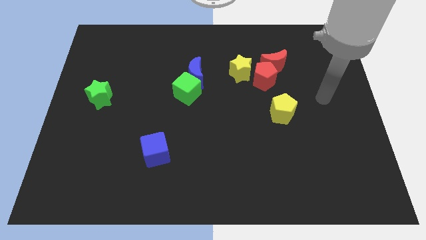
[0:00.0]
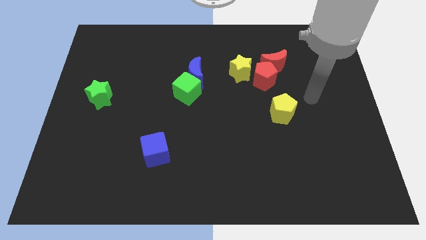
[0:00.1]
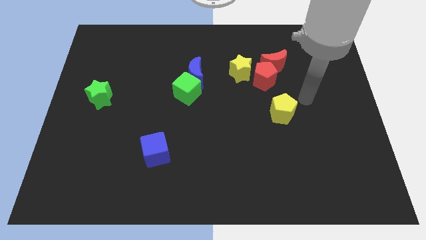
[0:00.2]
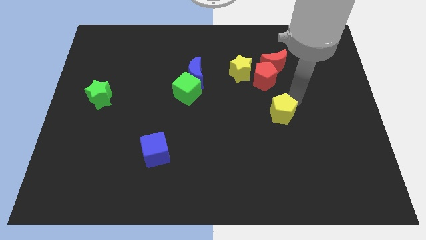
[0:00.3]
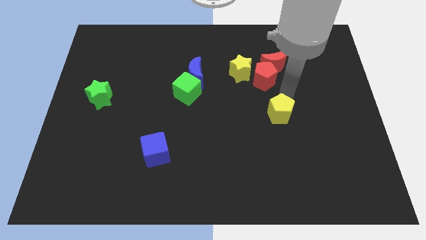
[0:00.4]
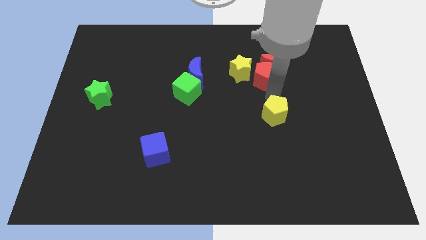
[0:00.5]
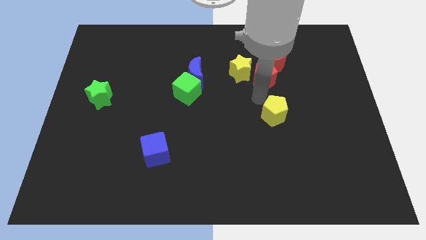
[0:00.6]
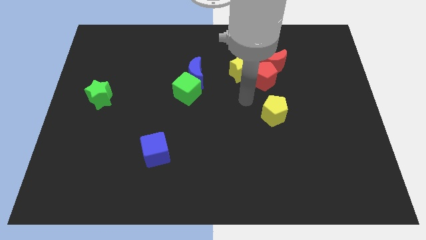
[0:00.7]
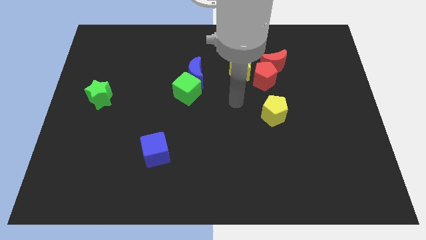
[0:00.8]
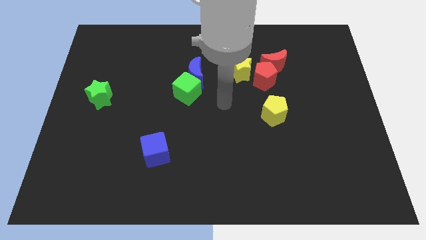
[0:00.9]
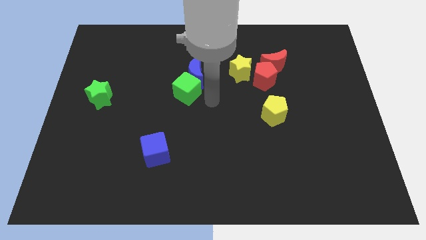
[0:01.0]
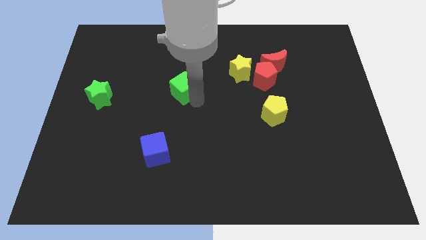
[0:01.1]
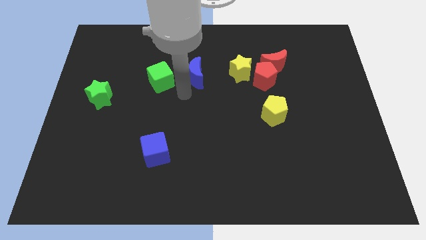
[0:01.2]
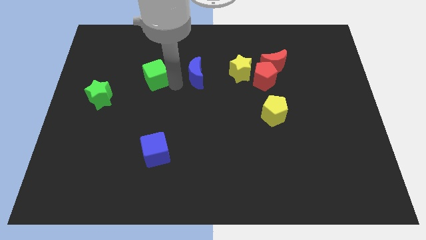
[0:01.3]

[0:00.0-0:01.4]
separate the blue moon from the green cube

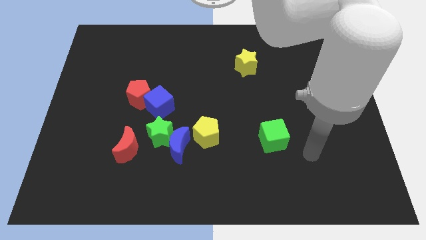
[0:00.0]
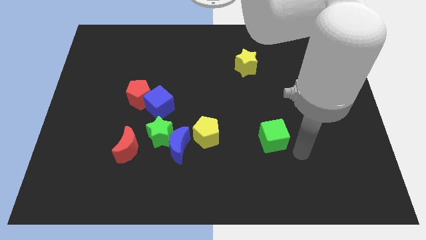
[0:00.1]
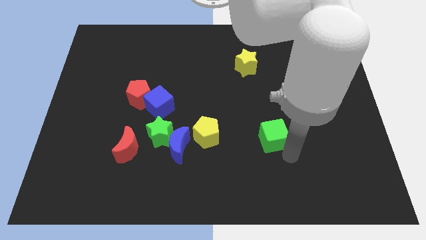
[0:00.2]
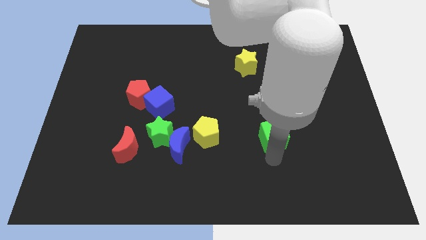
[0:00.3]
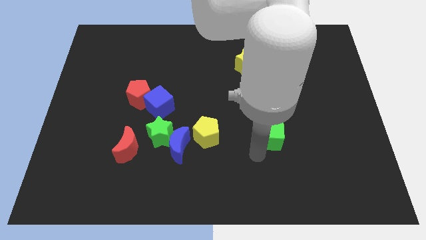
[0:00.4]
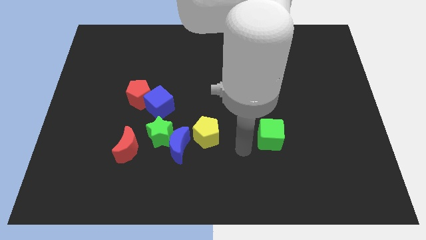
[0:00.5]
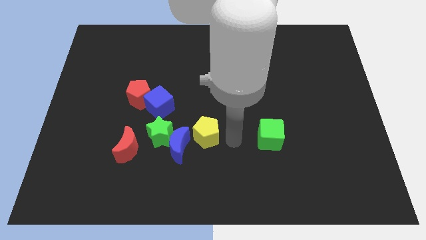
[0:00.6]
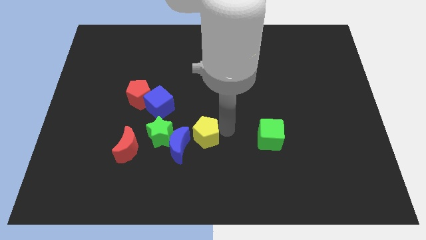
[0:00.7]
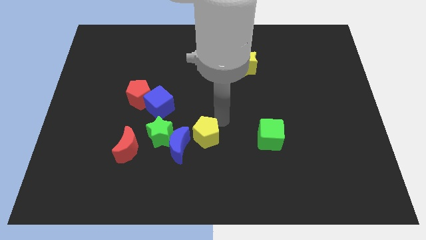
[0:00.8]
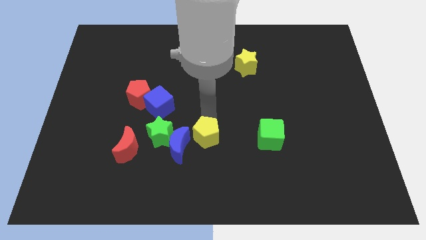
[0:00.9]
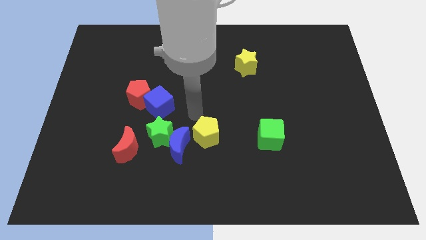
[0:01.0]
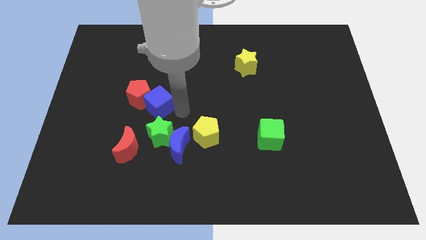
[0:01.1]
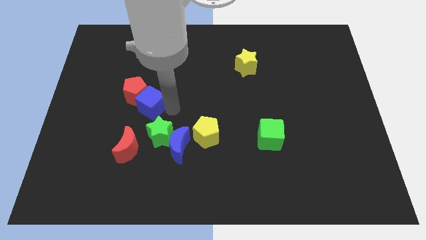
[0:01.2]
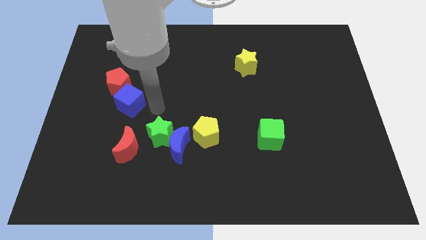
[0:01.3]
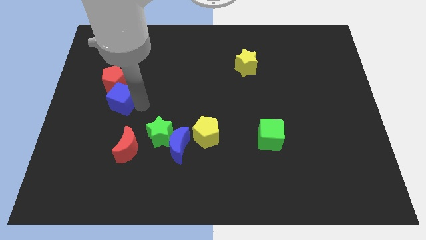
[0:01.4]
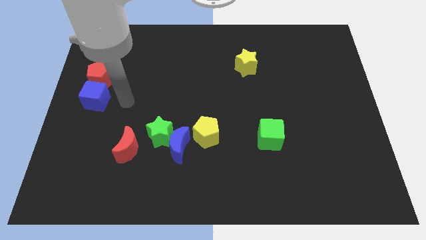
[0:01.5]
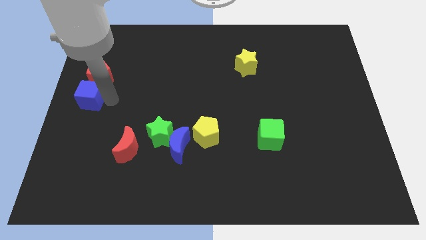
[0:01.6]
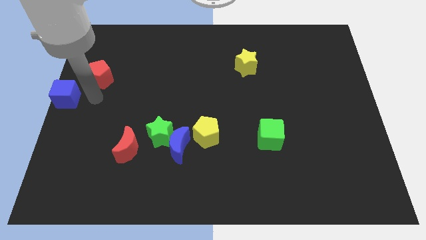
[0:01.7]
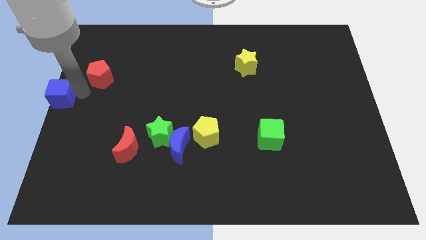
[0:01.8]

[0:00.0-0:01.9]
pull the red pentagon apart from the blue cube

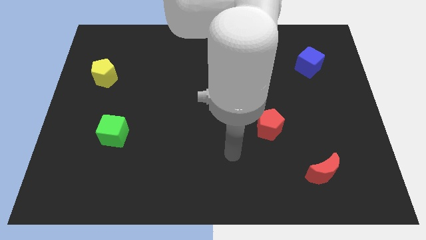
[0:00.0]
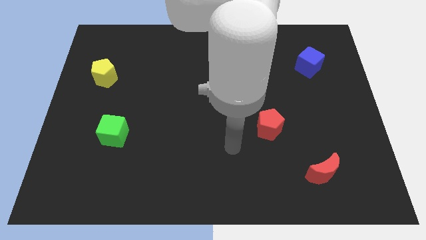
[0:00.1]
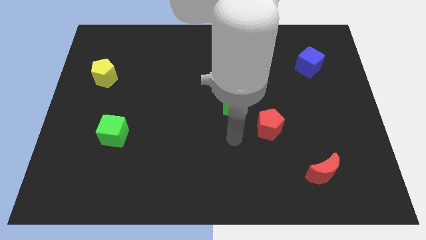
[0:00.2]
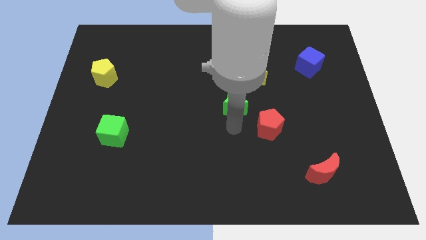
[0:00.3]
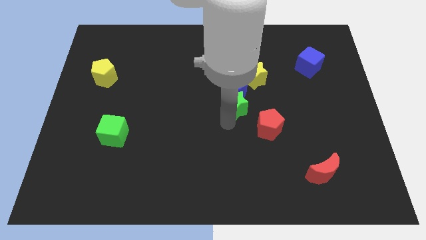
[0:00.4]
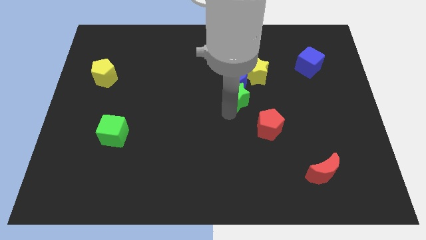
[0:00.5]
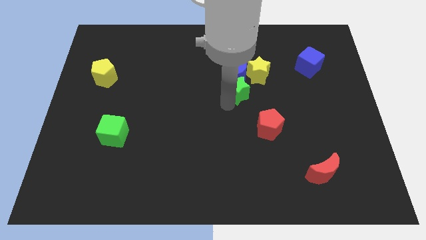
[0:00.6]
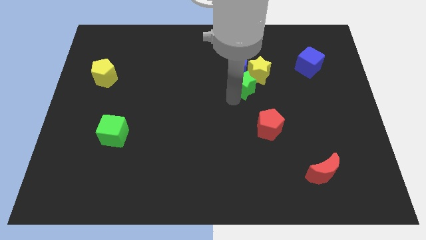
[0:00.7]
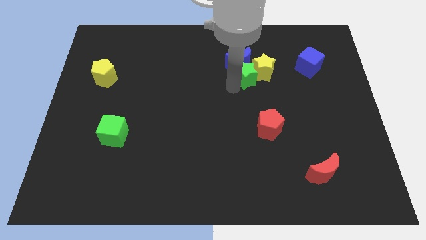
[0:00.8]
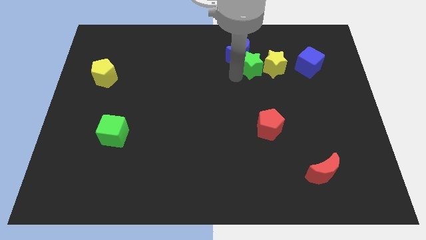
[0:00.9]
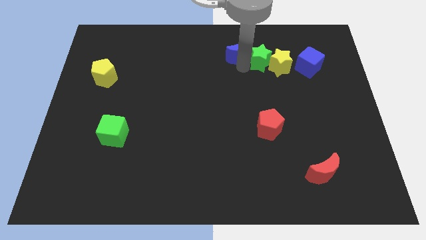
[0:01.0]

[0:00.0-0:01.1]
move the yellow star away from the blue moon

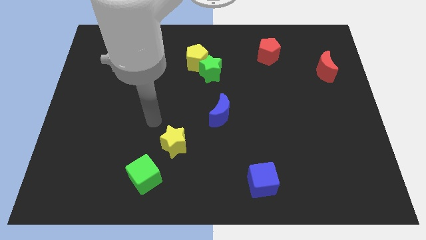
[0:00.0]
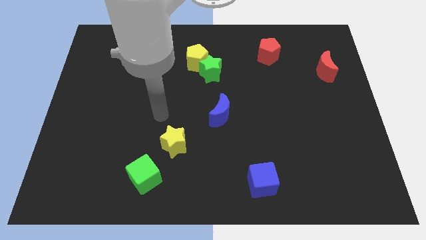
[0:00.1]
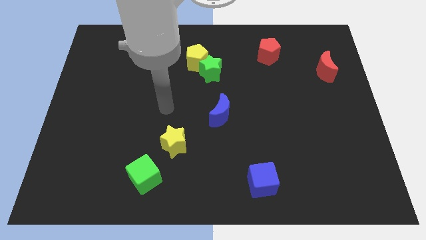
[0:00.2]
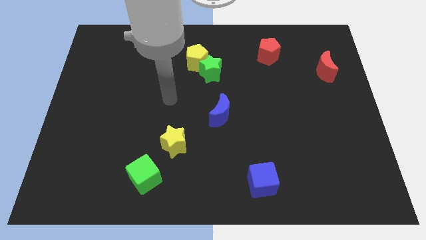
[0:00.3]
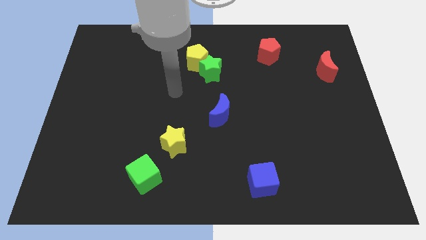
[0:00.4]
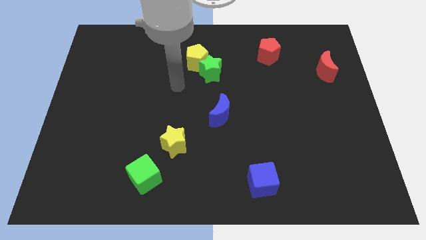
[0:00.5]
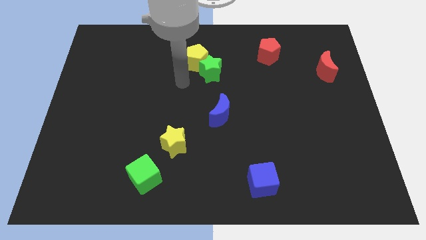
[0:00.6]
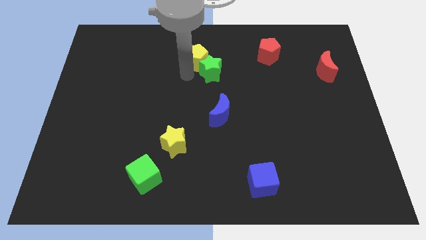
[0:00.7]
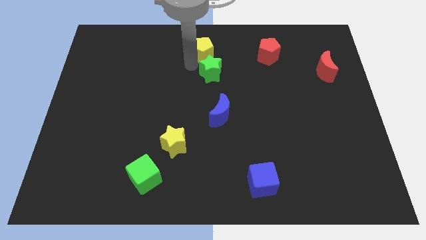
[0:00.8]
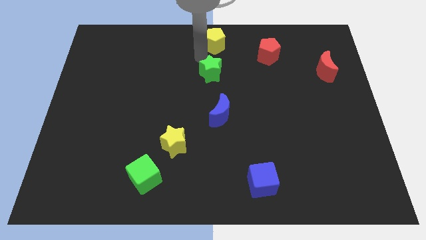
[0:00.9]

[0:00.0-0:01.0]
move the green star away from the yellow pentagon

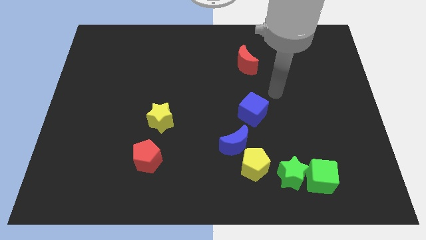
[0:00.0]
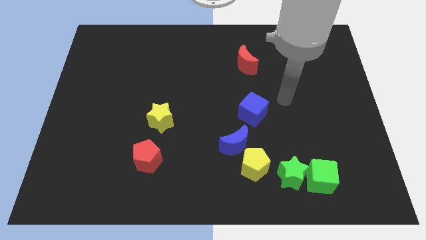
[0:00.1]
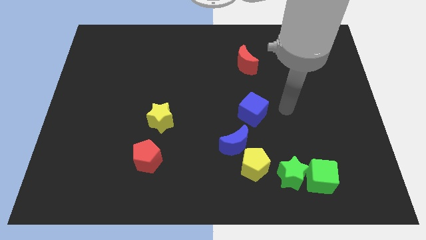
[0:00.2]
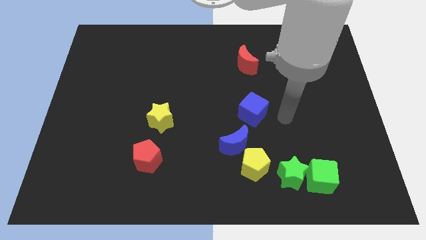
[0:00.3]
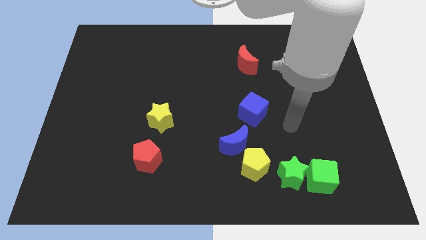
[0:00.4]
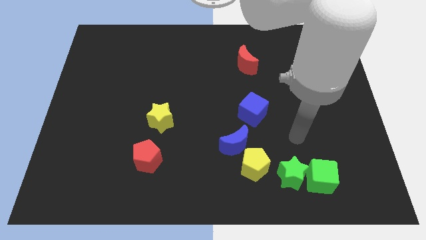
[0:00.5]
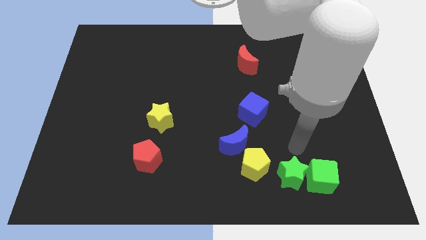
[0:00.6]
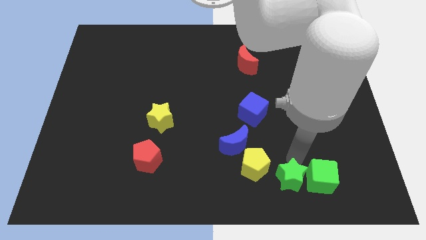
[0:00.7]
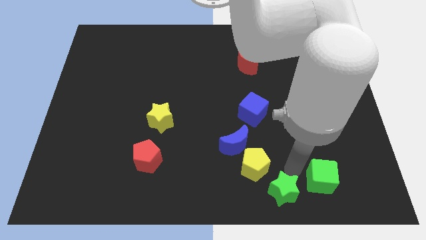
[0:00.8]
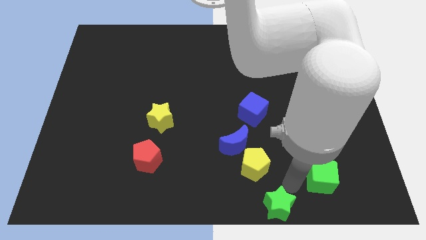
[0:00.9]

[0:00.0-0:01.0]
pull the green cube apart from the green star

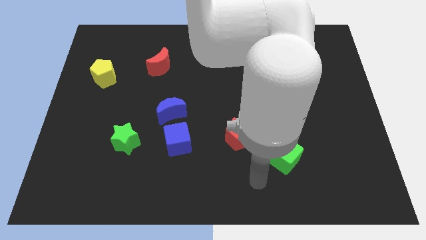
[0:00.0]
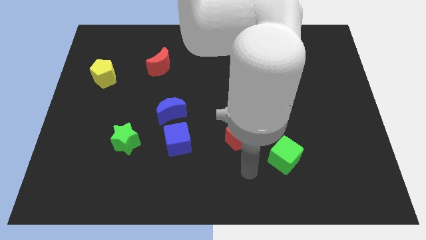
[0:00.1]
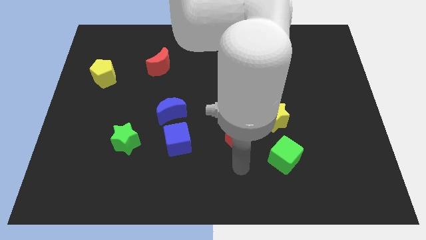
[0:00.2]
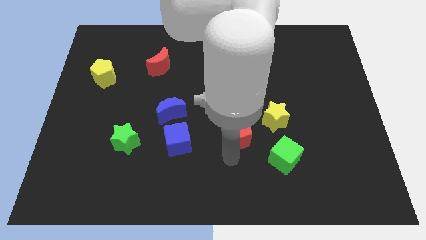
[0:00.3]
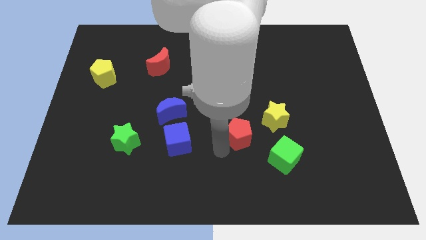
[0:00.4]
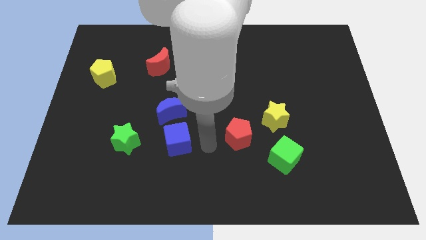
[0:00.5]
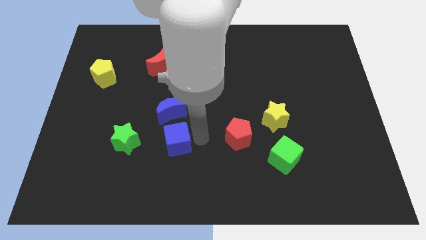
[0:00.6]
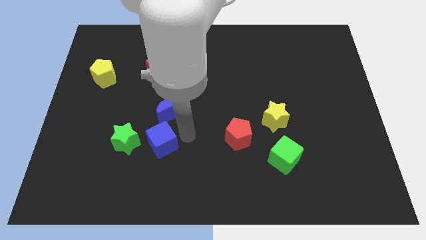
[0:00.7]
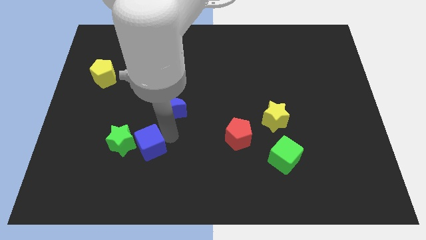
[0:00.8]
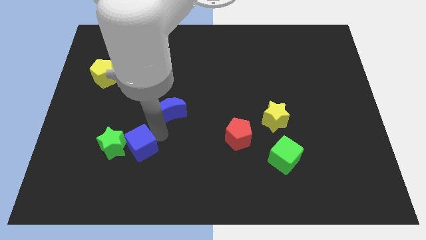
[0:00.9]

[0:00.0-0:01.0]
move the blue moon away from the blue cube

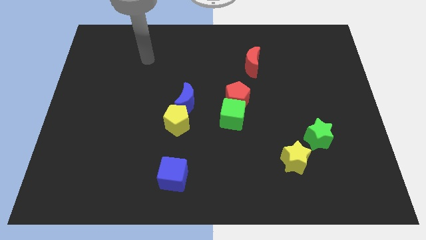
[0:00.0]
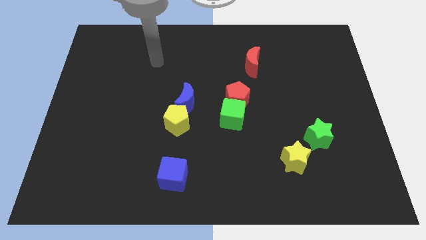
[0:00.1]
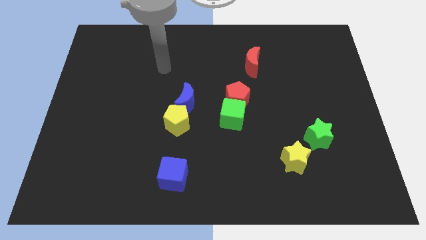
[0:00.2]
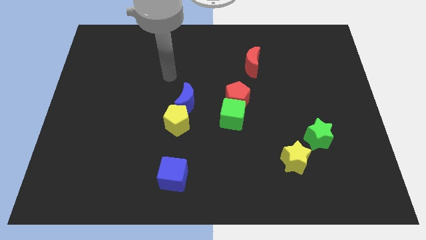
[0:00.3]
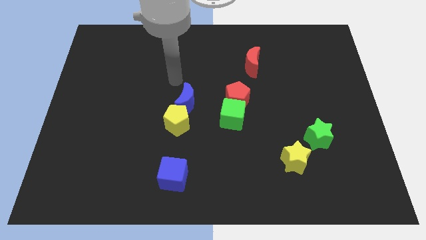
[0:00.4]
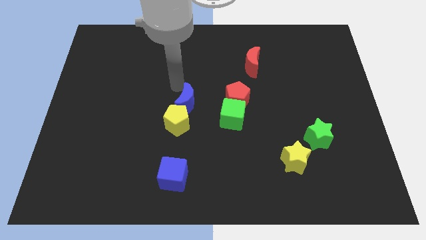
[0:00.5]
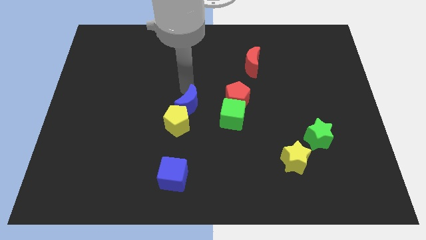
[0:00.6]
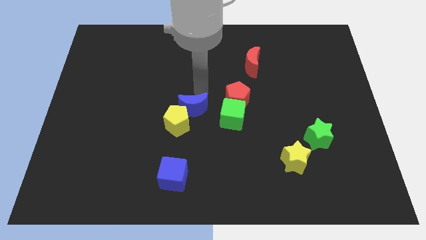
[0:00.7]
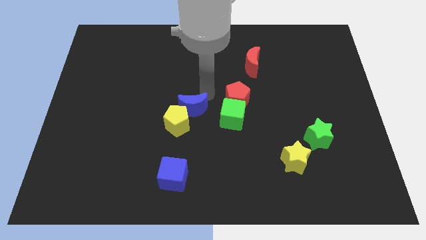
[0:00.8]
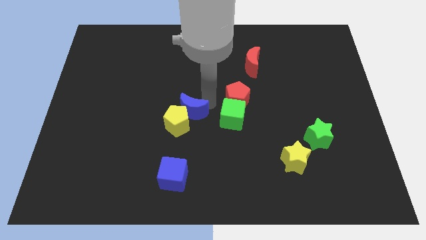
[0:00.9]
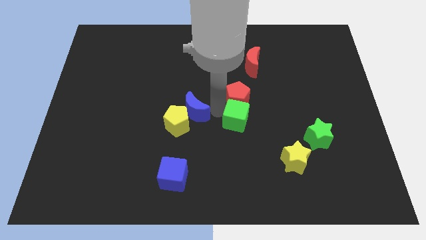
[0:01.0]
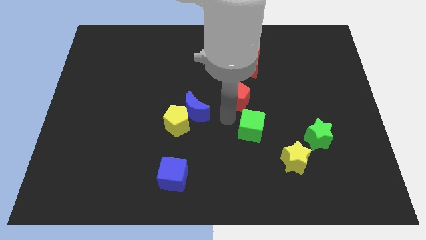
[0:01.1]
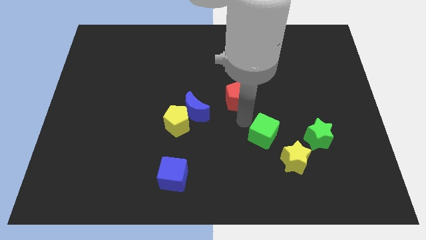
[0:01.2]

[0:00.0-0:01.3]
move the red pentagon away from the green cube

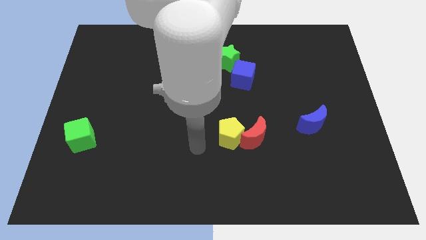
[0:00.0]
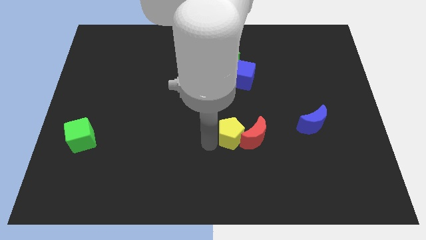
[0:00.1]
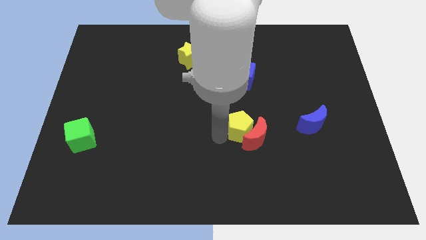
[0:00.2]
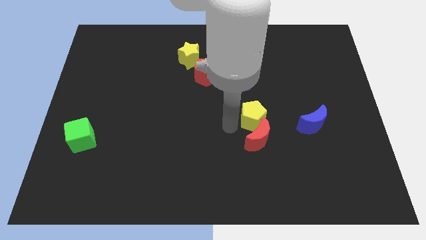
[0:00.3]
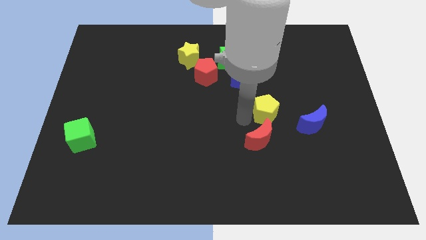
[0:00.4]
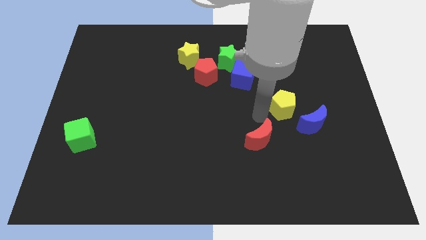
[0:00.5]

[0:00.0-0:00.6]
pull the red moon apart from the yellow pentagon
